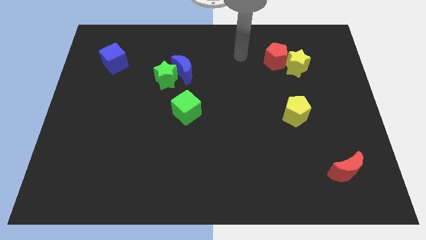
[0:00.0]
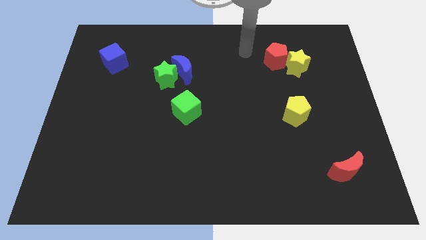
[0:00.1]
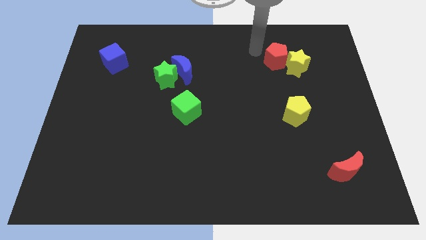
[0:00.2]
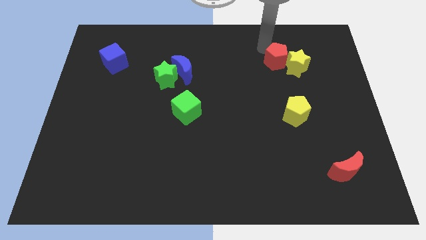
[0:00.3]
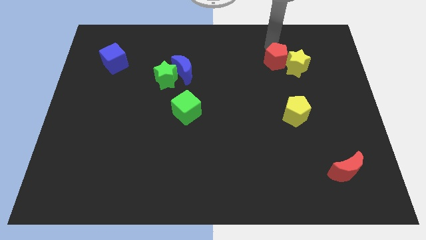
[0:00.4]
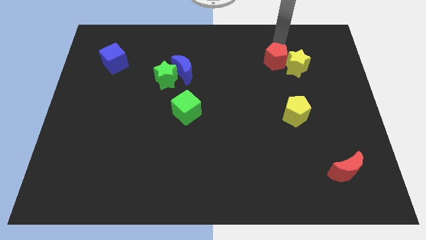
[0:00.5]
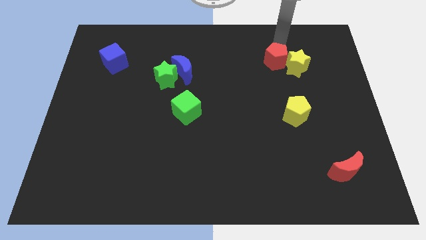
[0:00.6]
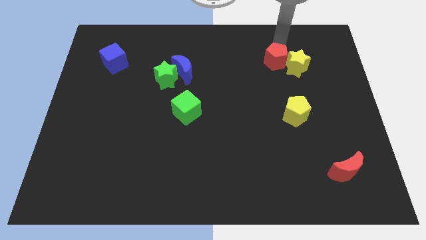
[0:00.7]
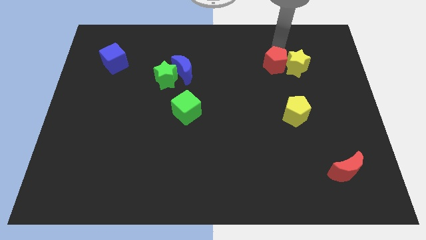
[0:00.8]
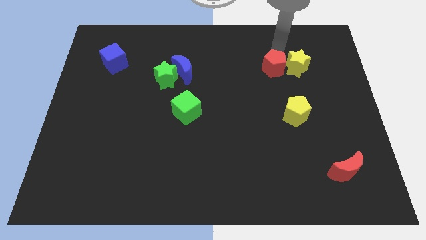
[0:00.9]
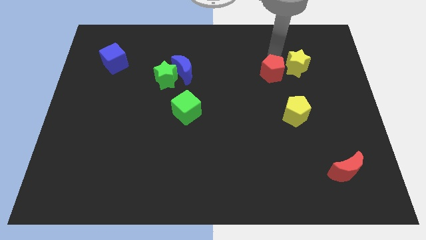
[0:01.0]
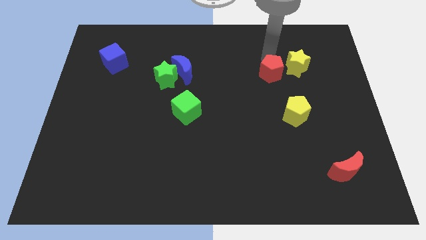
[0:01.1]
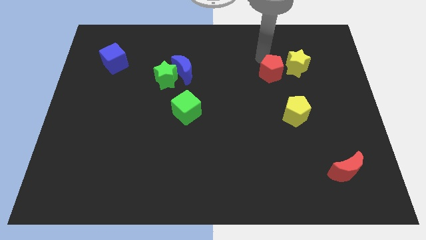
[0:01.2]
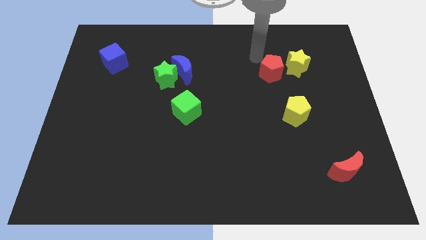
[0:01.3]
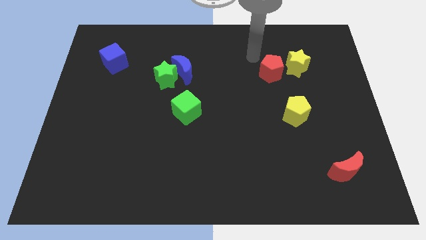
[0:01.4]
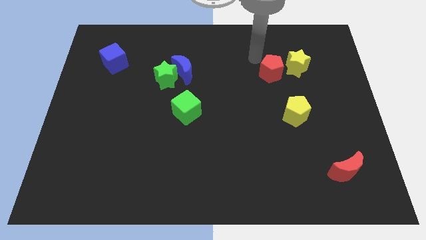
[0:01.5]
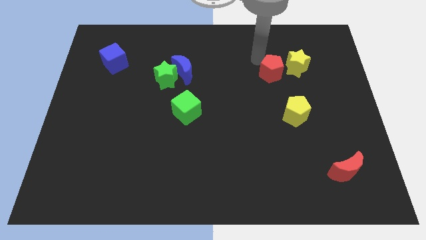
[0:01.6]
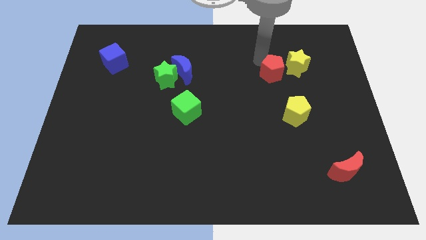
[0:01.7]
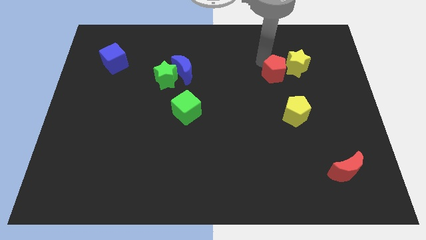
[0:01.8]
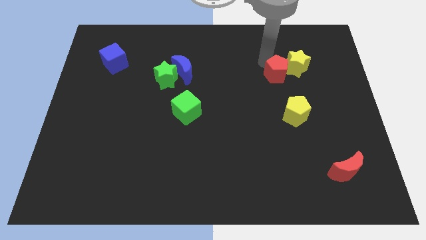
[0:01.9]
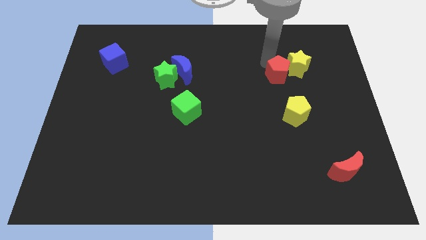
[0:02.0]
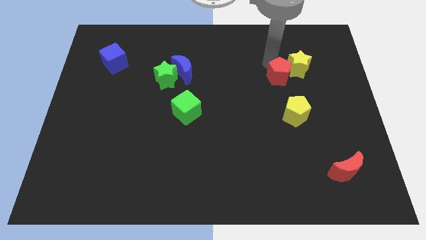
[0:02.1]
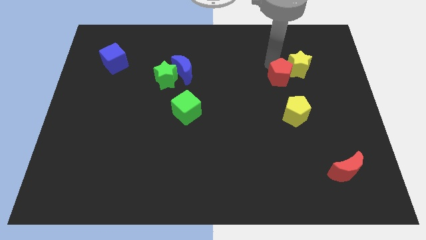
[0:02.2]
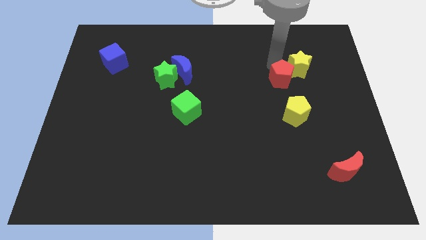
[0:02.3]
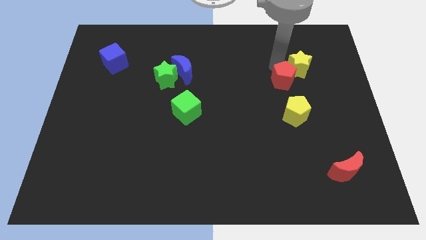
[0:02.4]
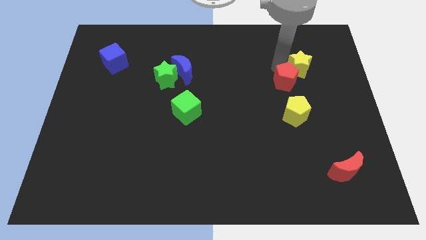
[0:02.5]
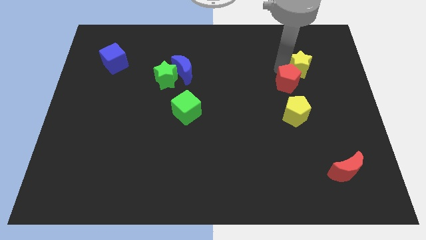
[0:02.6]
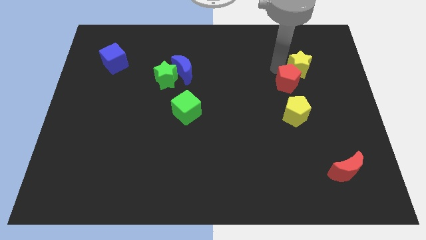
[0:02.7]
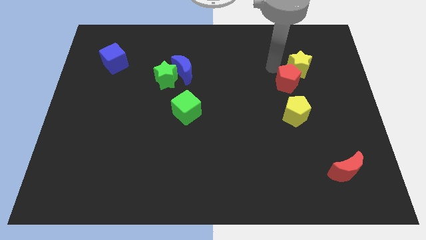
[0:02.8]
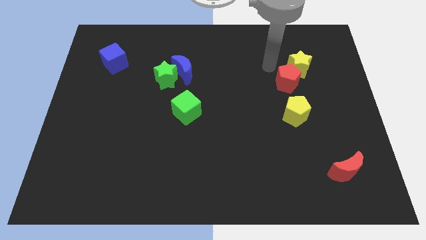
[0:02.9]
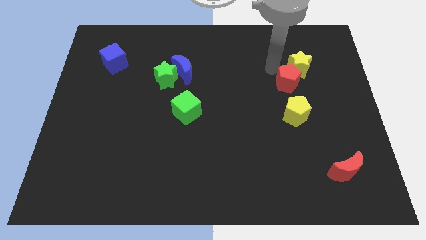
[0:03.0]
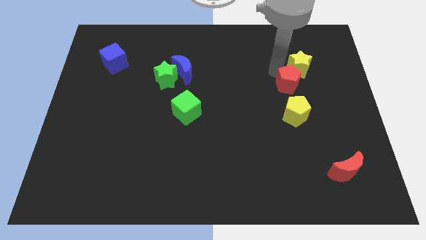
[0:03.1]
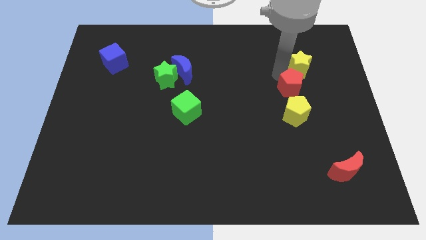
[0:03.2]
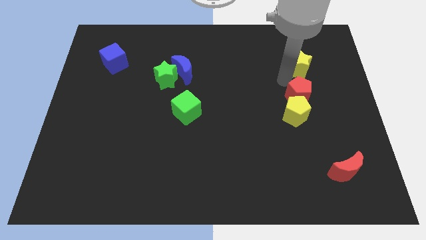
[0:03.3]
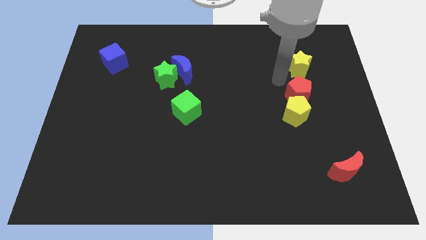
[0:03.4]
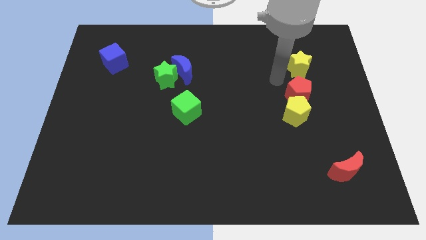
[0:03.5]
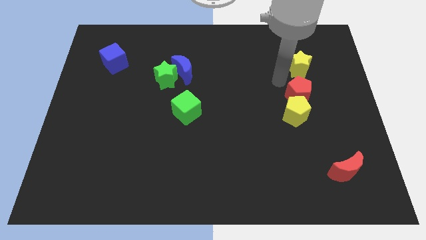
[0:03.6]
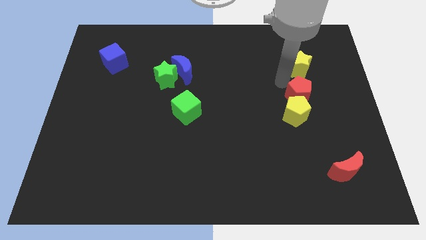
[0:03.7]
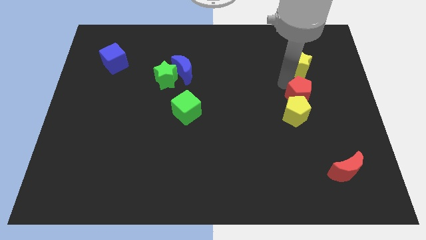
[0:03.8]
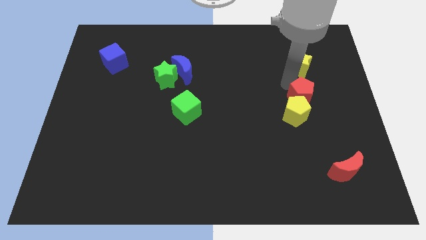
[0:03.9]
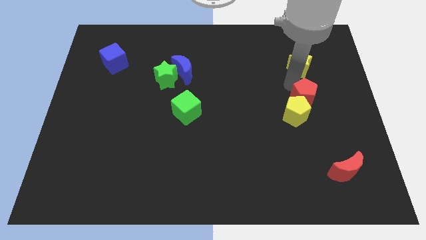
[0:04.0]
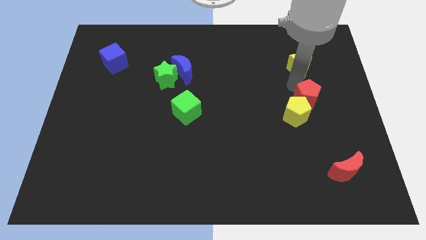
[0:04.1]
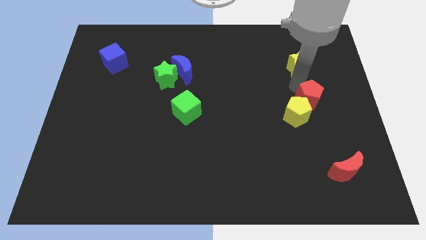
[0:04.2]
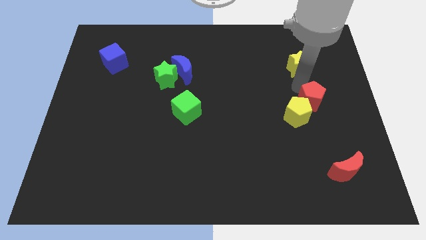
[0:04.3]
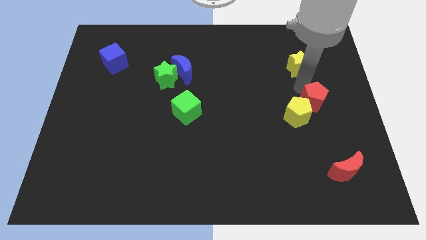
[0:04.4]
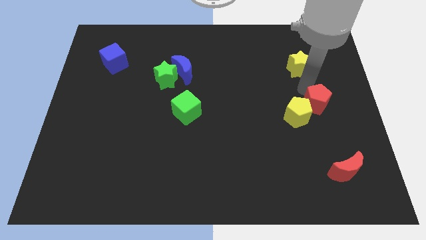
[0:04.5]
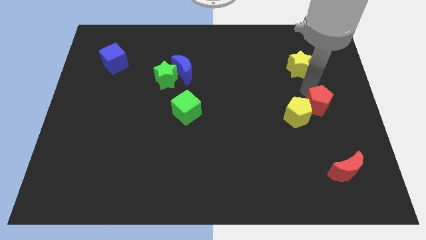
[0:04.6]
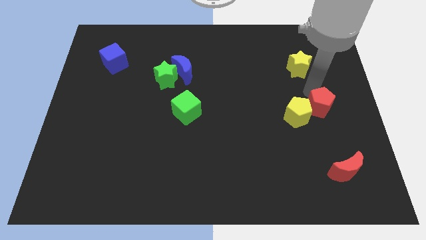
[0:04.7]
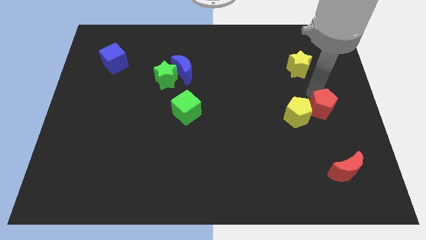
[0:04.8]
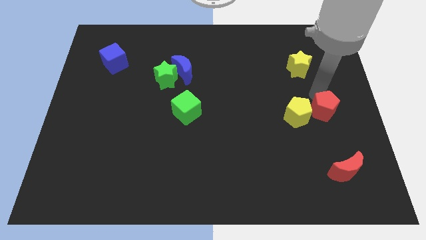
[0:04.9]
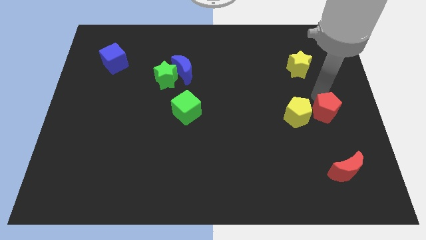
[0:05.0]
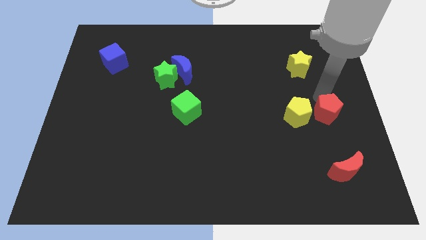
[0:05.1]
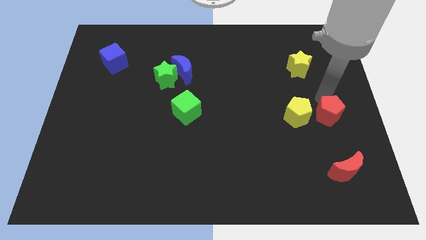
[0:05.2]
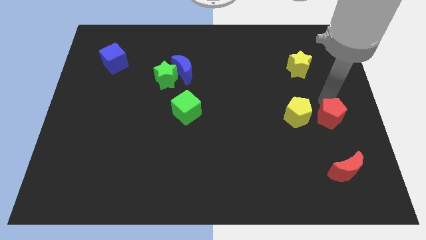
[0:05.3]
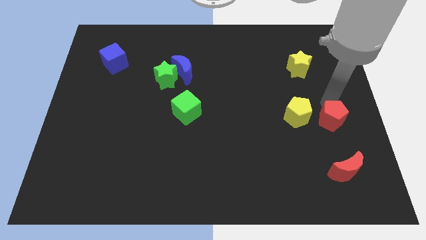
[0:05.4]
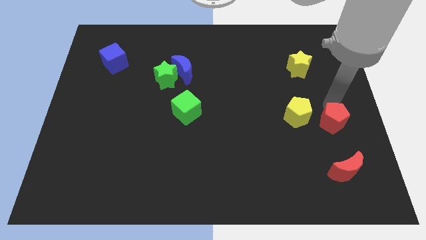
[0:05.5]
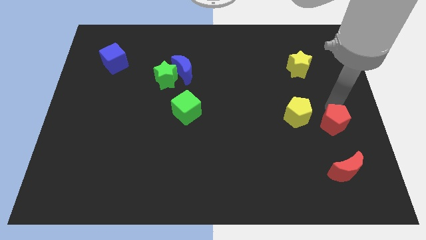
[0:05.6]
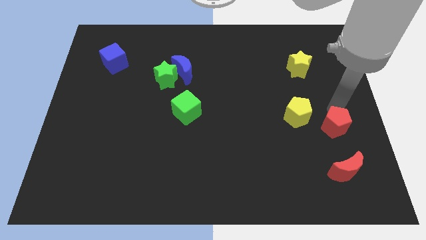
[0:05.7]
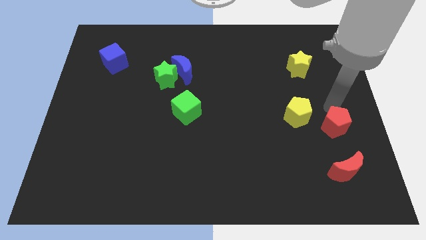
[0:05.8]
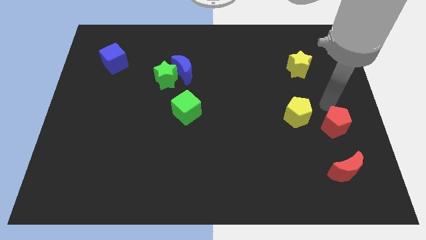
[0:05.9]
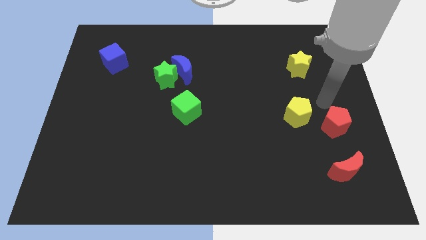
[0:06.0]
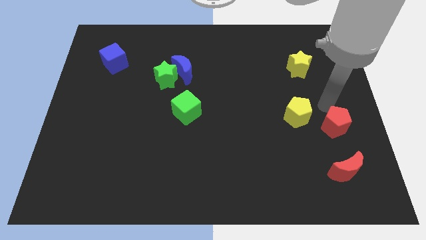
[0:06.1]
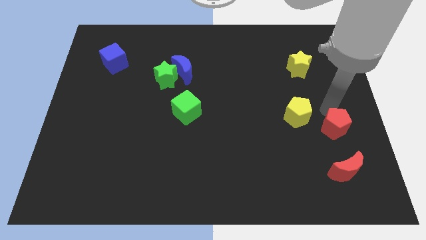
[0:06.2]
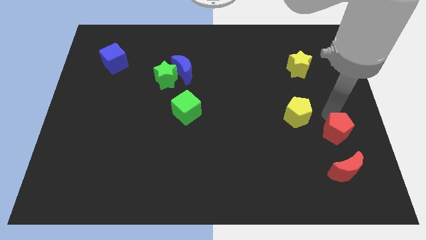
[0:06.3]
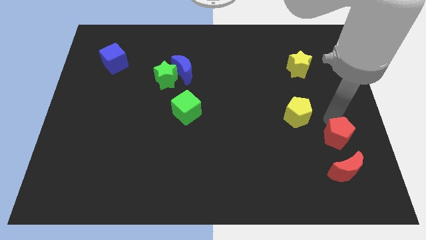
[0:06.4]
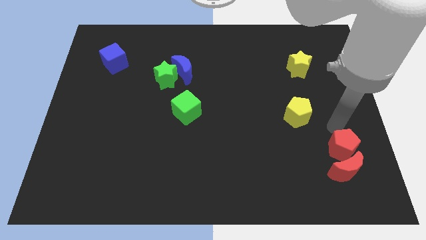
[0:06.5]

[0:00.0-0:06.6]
move the red pentagon towards the red moon
